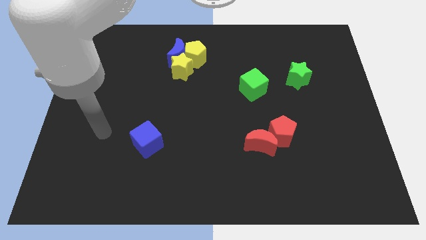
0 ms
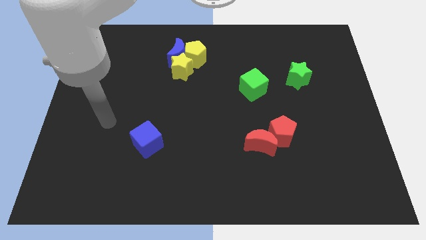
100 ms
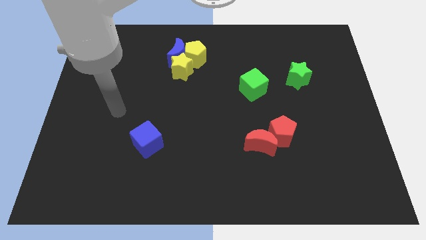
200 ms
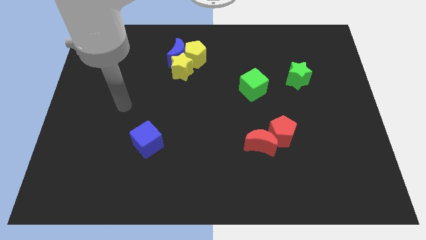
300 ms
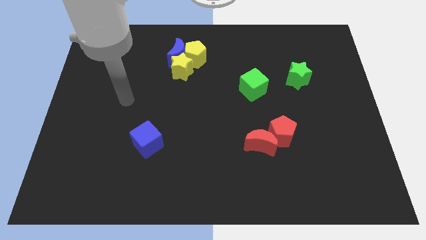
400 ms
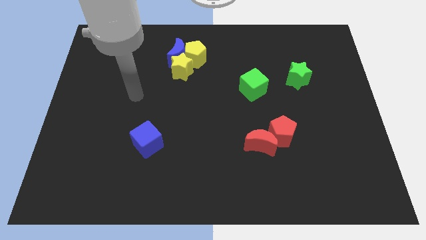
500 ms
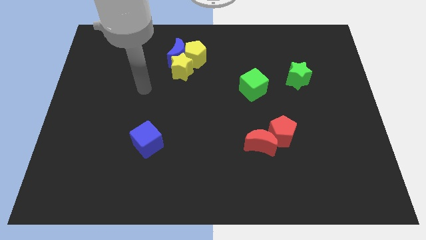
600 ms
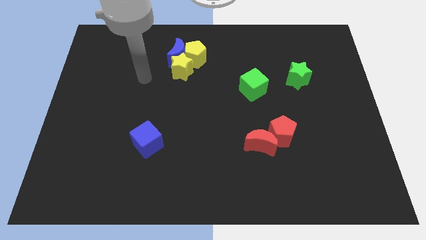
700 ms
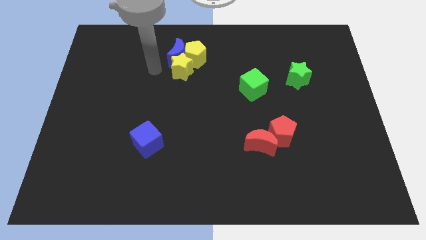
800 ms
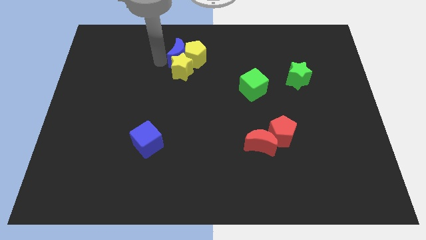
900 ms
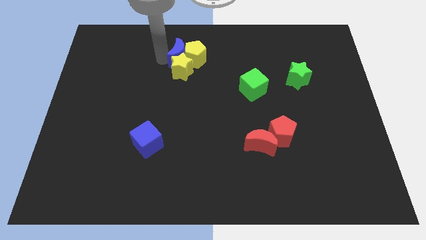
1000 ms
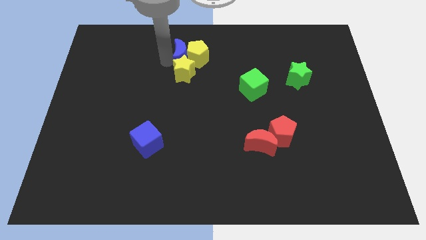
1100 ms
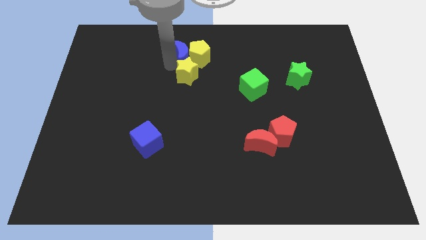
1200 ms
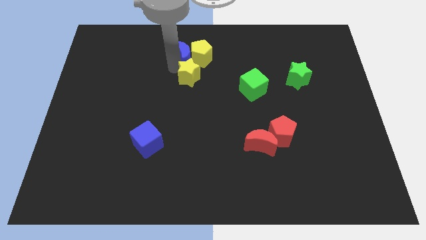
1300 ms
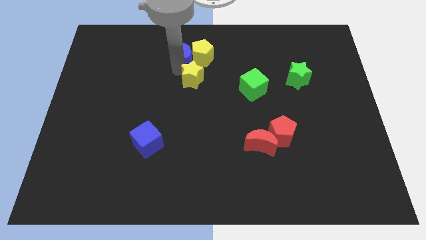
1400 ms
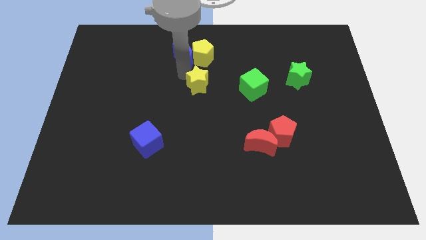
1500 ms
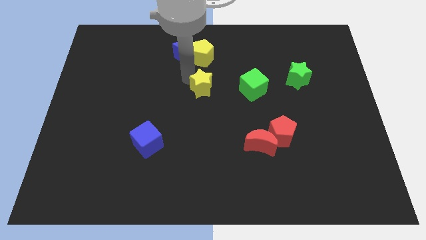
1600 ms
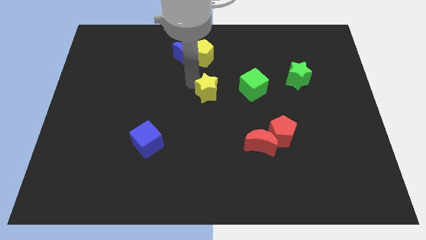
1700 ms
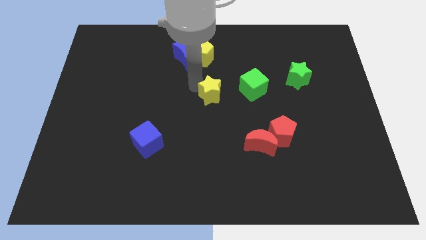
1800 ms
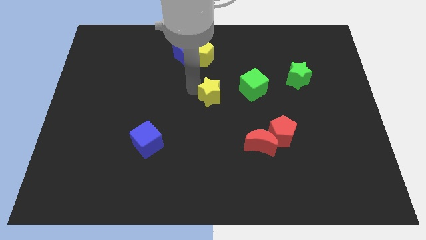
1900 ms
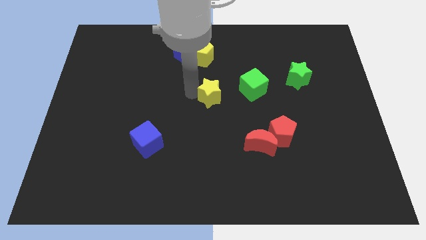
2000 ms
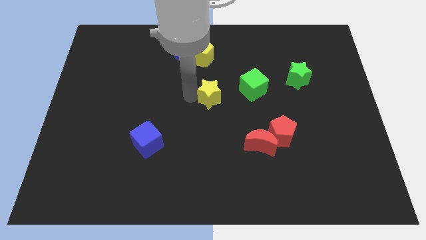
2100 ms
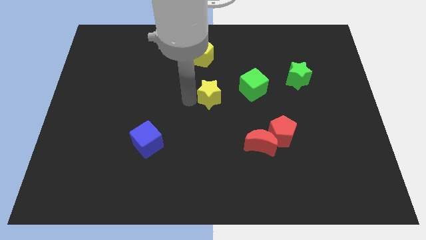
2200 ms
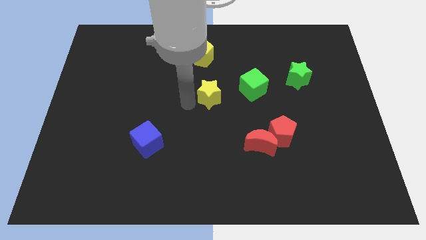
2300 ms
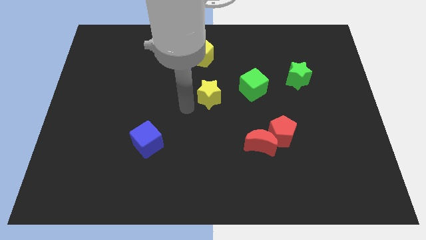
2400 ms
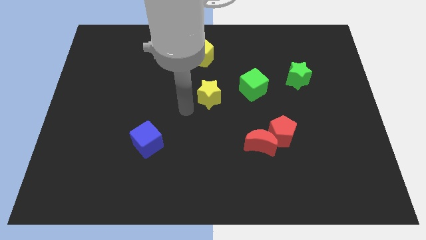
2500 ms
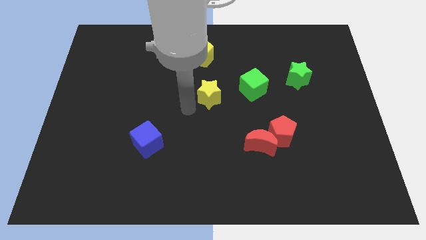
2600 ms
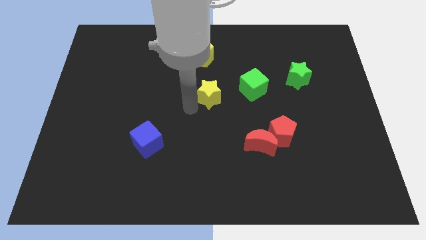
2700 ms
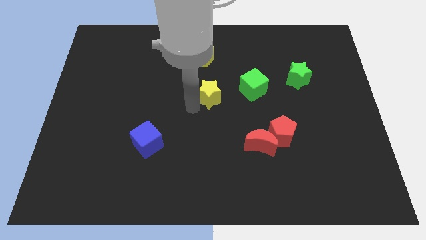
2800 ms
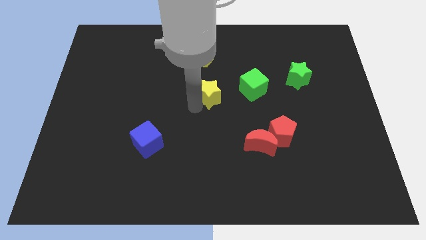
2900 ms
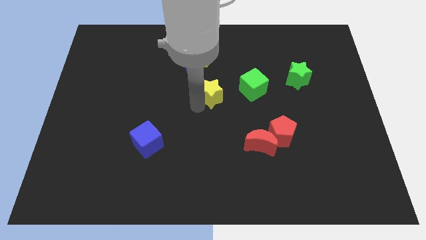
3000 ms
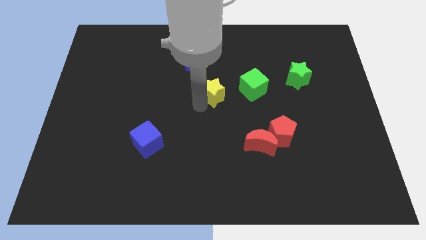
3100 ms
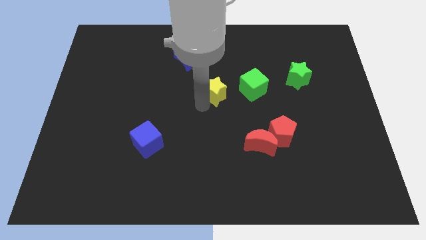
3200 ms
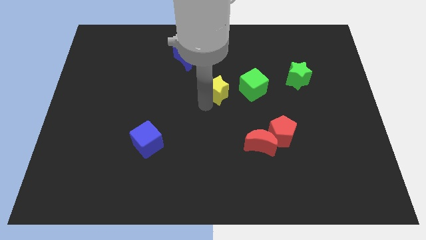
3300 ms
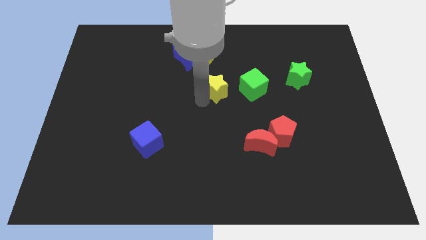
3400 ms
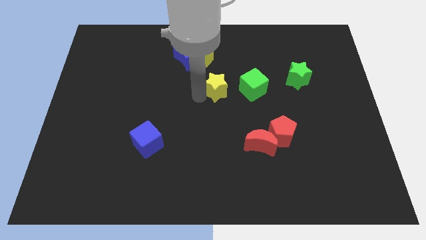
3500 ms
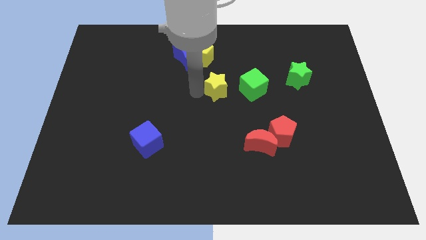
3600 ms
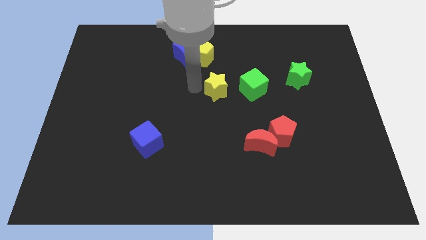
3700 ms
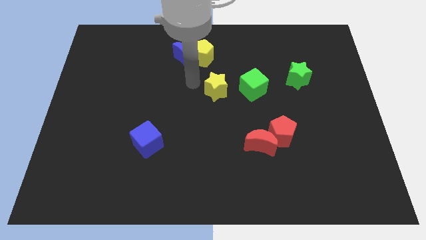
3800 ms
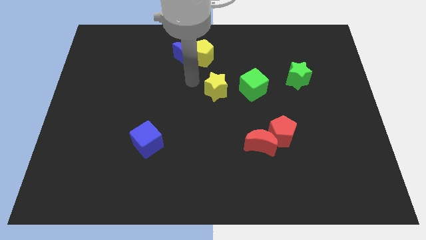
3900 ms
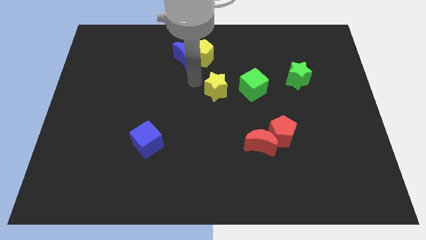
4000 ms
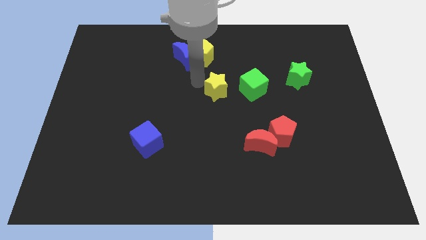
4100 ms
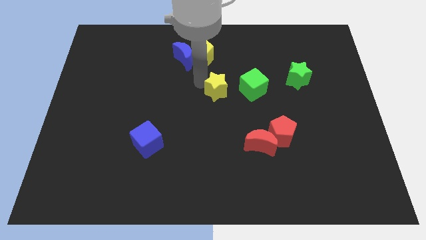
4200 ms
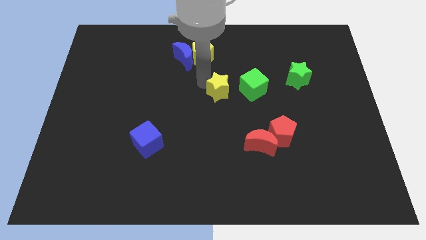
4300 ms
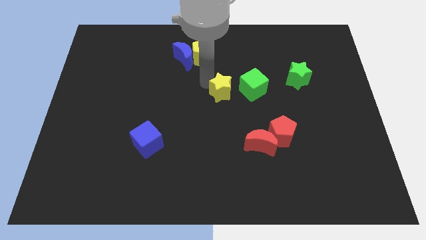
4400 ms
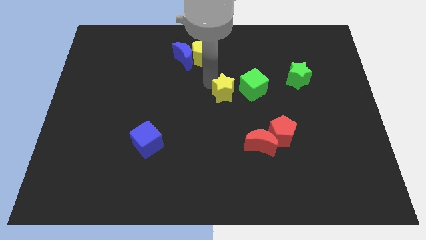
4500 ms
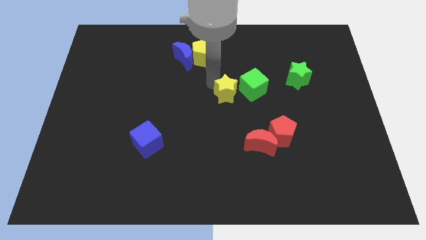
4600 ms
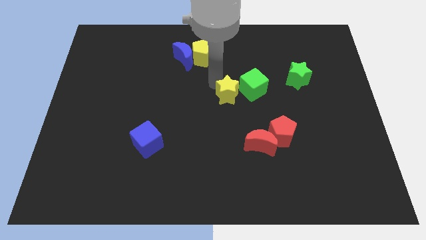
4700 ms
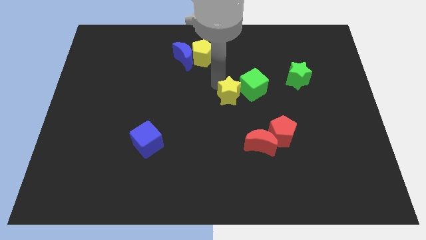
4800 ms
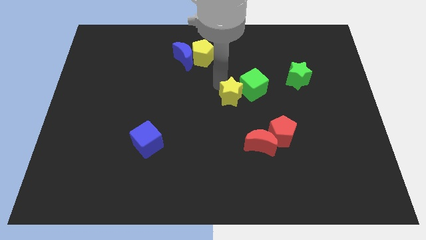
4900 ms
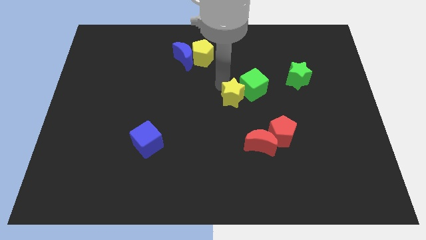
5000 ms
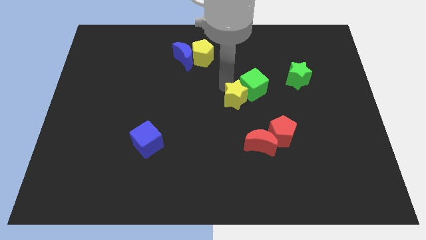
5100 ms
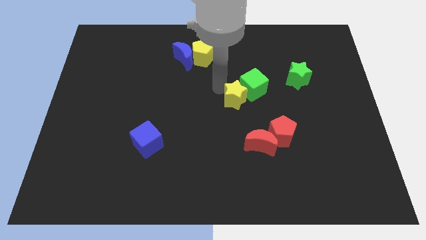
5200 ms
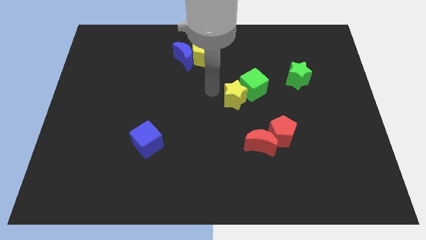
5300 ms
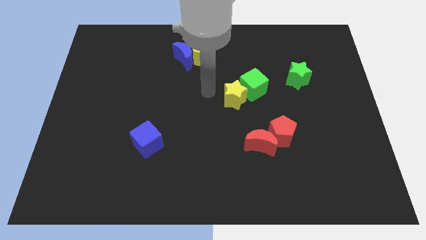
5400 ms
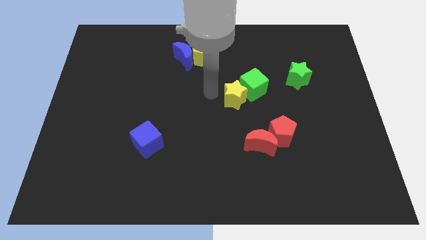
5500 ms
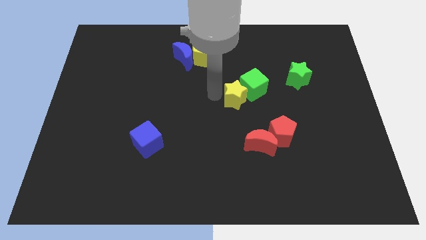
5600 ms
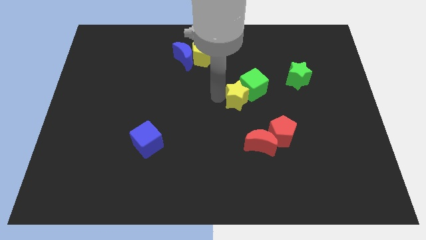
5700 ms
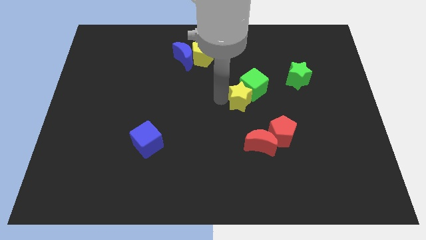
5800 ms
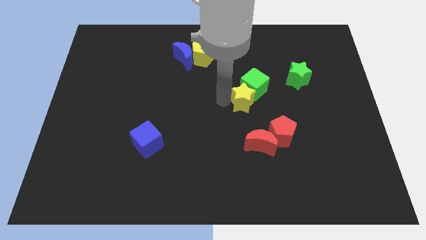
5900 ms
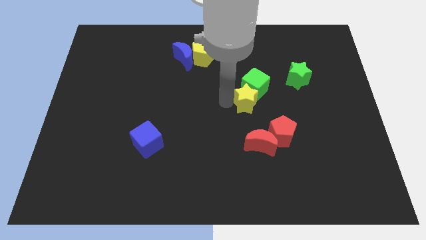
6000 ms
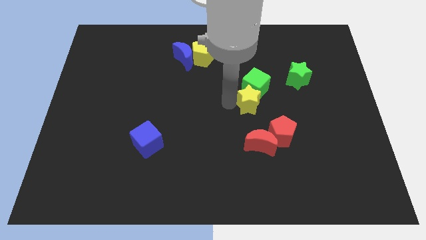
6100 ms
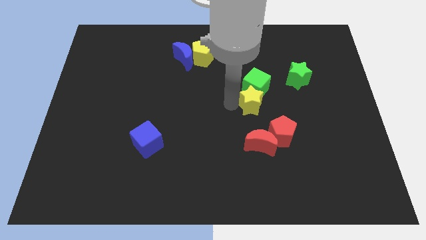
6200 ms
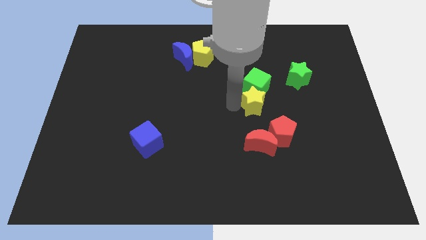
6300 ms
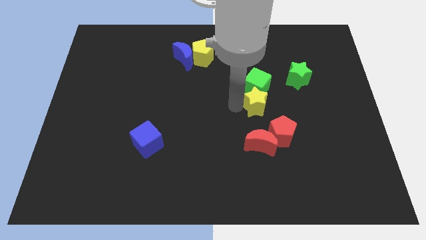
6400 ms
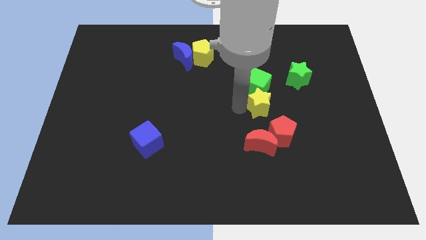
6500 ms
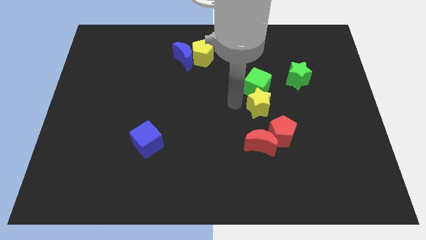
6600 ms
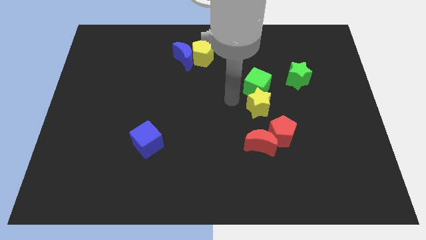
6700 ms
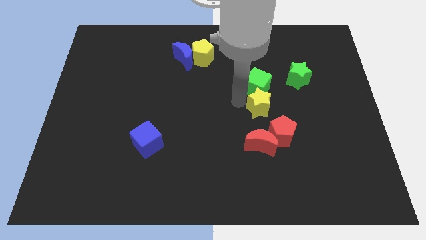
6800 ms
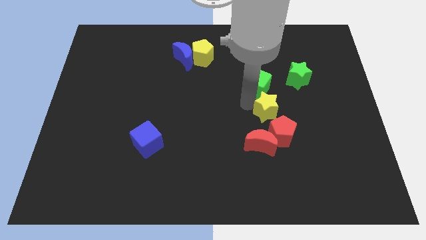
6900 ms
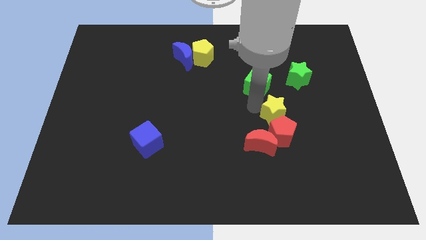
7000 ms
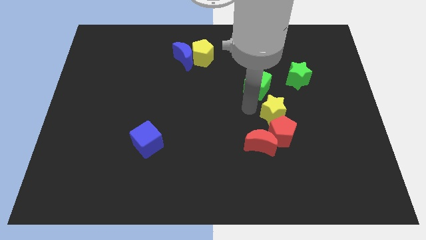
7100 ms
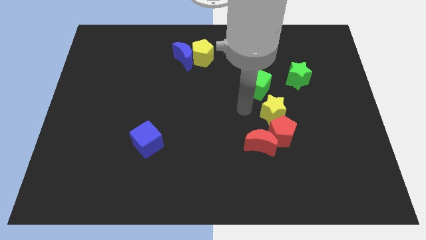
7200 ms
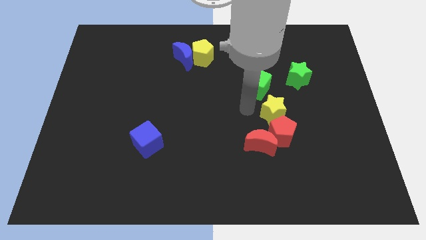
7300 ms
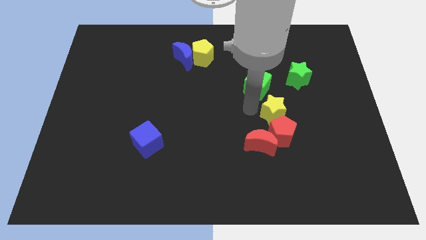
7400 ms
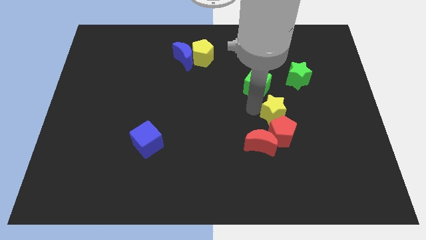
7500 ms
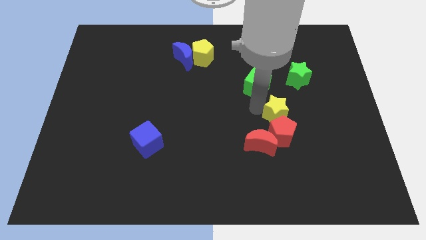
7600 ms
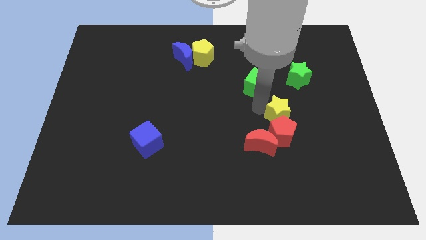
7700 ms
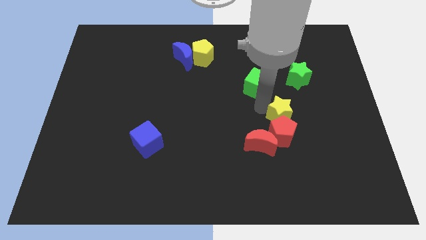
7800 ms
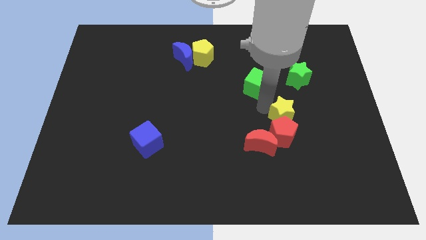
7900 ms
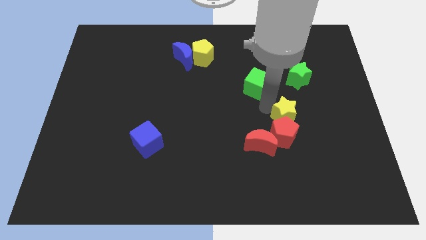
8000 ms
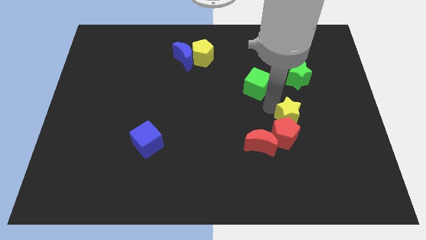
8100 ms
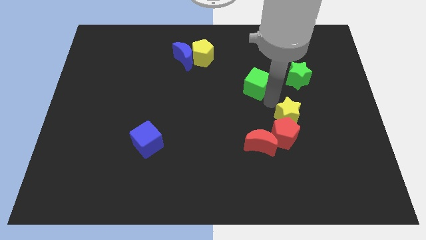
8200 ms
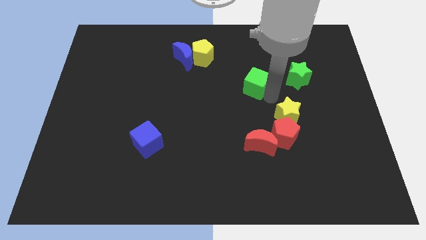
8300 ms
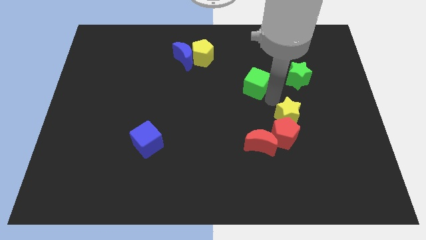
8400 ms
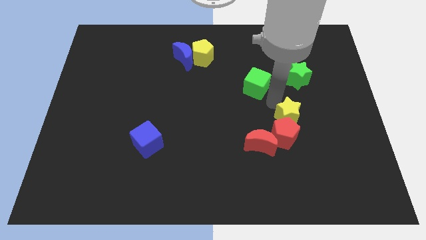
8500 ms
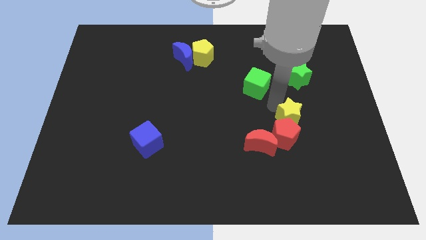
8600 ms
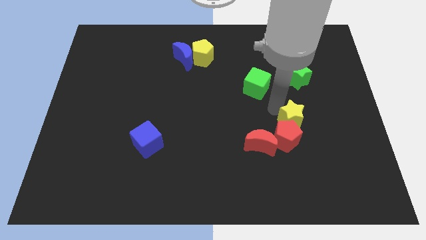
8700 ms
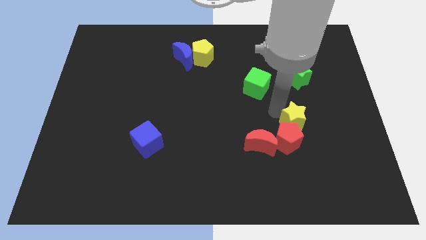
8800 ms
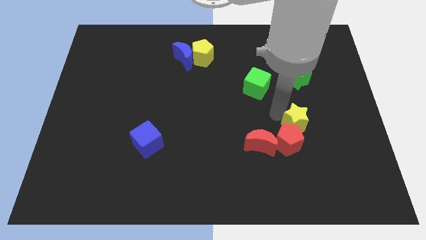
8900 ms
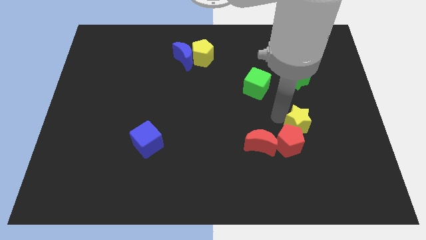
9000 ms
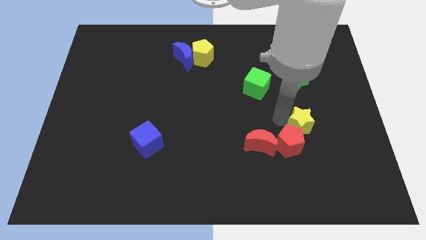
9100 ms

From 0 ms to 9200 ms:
slide the yellow star to the right side of the red moon
